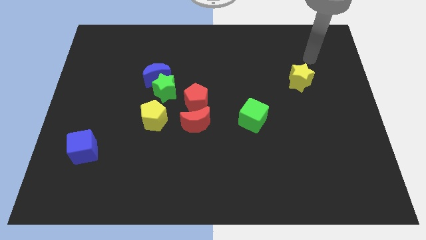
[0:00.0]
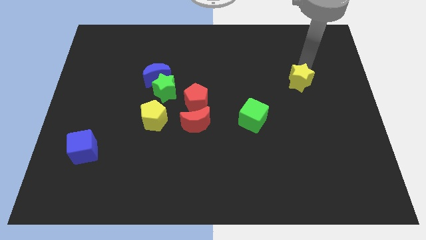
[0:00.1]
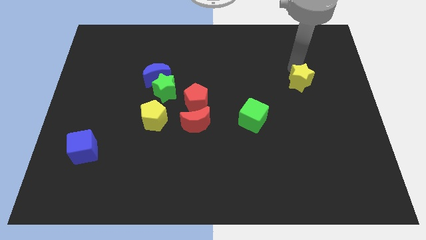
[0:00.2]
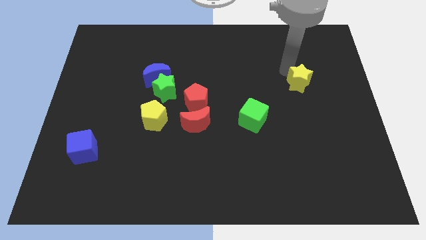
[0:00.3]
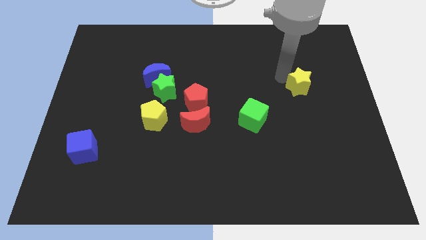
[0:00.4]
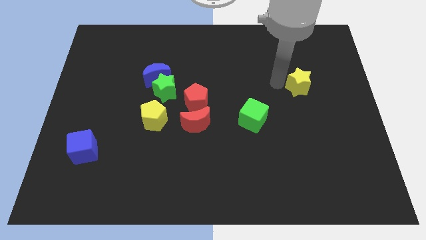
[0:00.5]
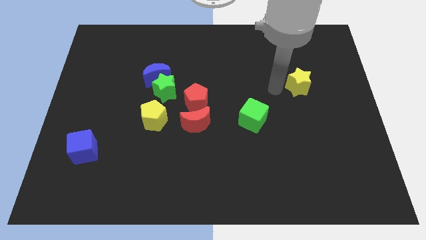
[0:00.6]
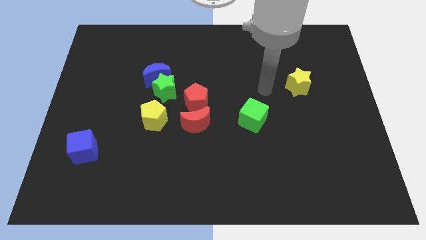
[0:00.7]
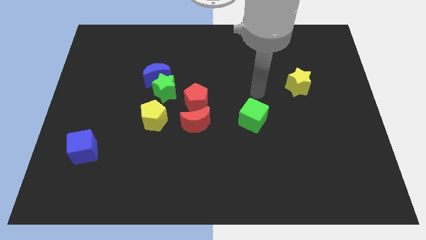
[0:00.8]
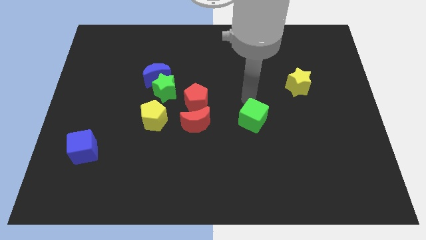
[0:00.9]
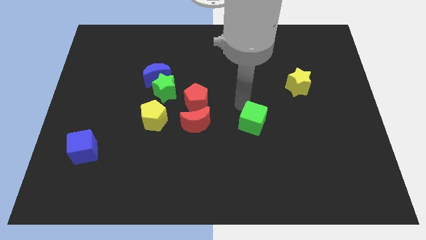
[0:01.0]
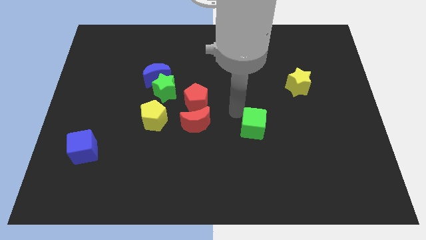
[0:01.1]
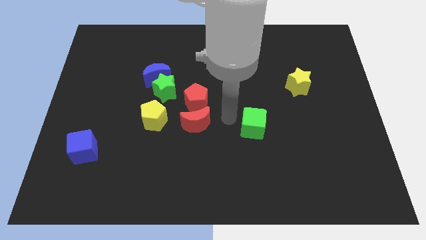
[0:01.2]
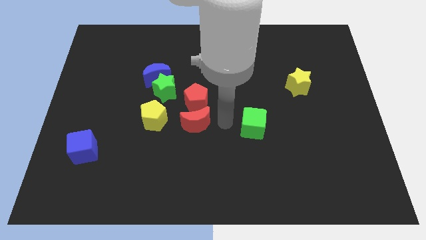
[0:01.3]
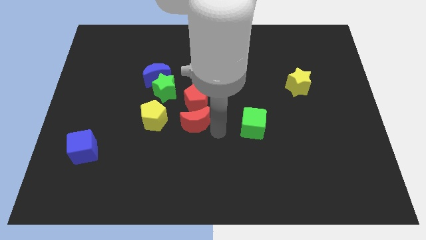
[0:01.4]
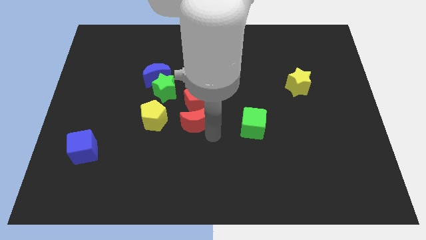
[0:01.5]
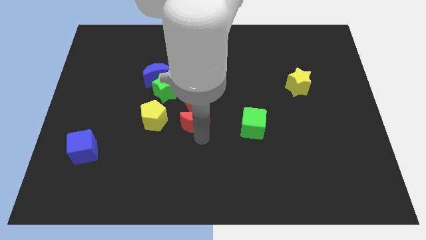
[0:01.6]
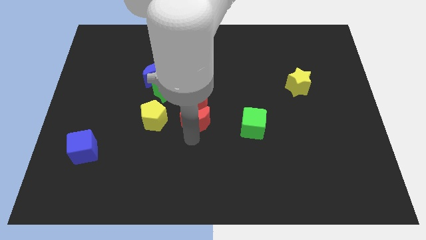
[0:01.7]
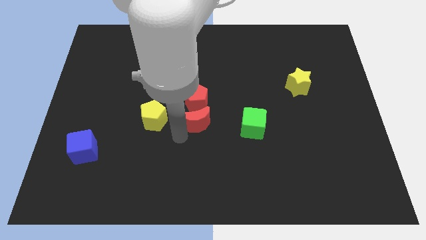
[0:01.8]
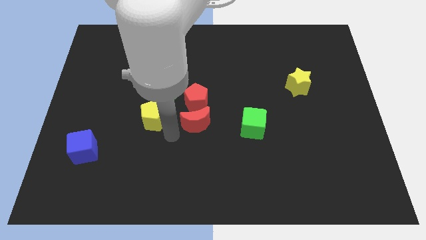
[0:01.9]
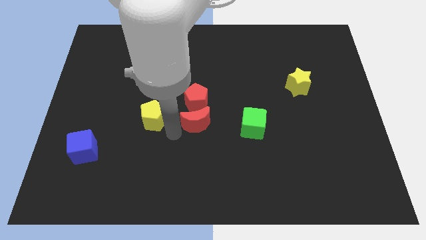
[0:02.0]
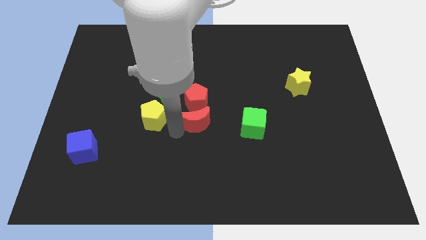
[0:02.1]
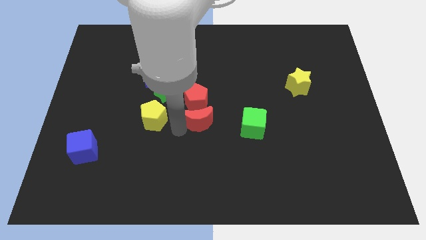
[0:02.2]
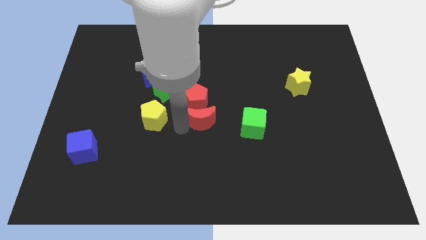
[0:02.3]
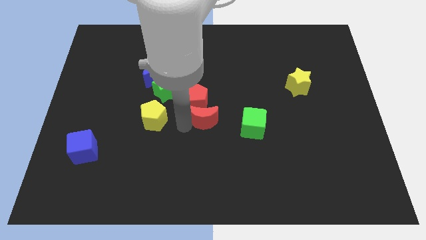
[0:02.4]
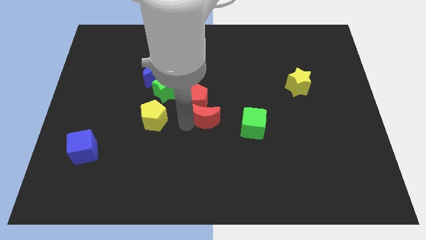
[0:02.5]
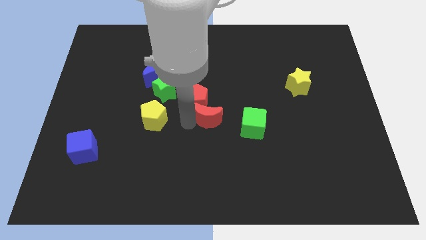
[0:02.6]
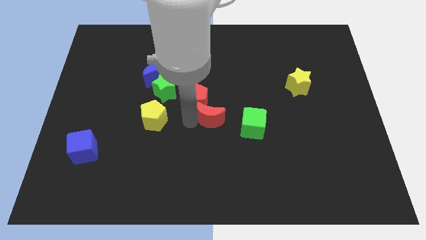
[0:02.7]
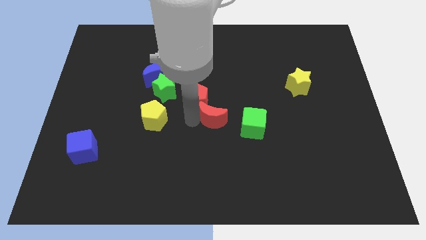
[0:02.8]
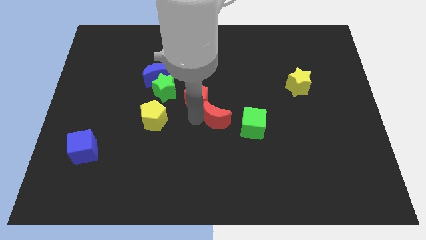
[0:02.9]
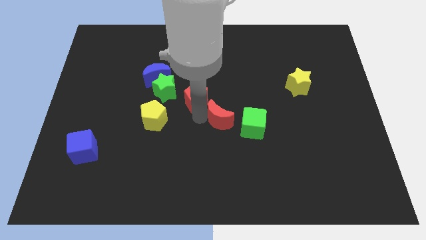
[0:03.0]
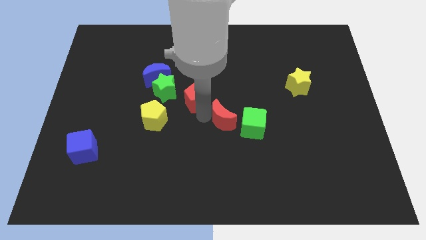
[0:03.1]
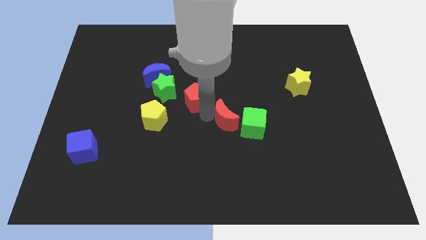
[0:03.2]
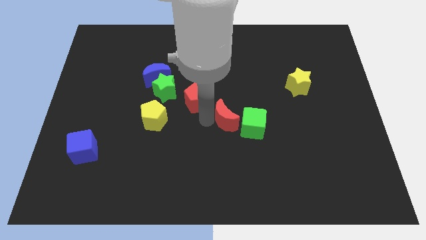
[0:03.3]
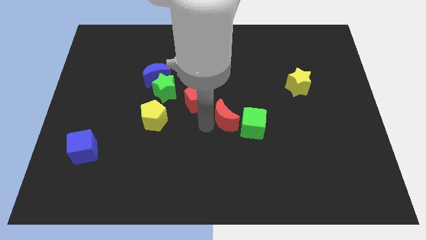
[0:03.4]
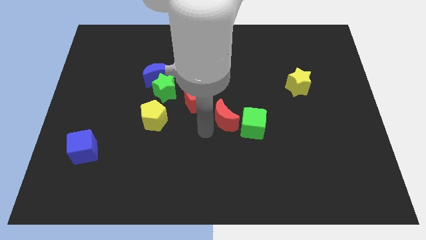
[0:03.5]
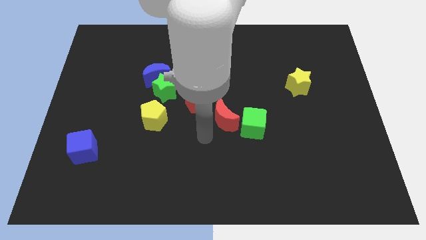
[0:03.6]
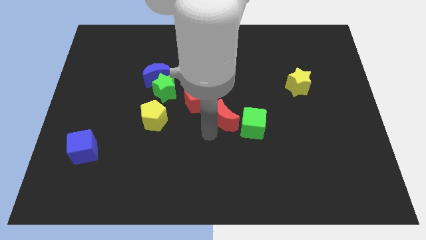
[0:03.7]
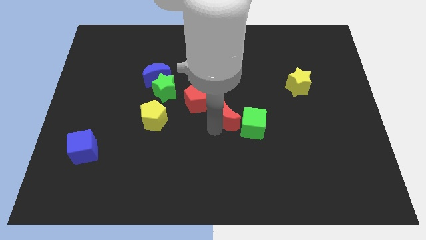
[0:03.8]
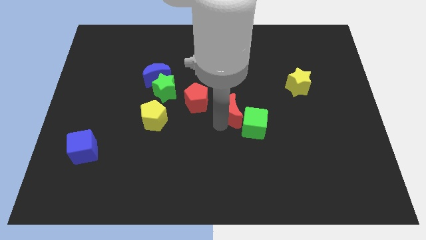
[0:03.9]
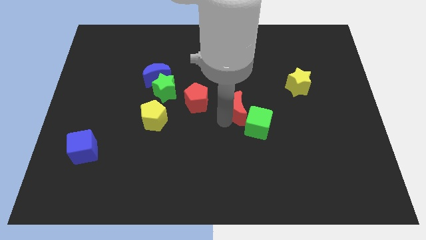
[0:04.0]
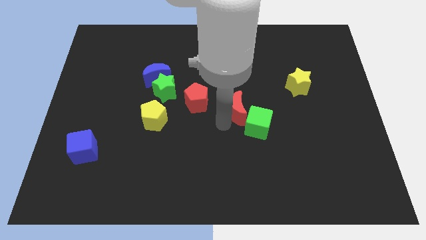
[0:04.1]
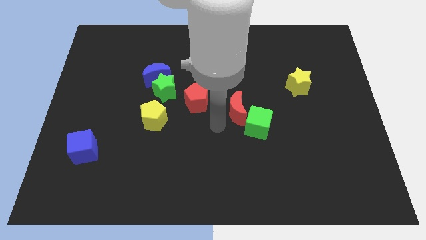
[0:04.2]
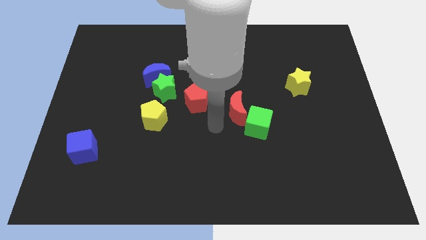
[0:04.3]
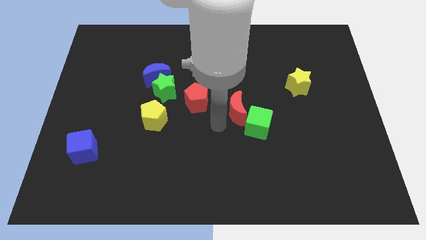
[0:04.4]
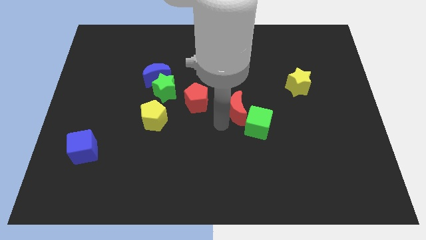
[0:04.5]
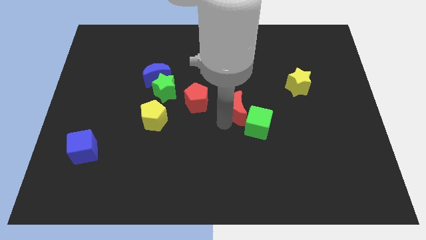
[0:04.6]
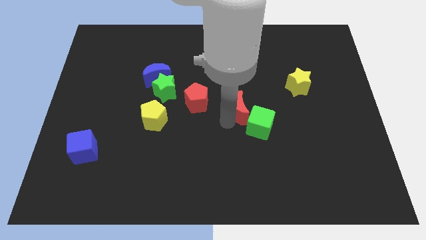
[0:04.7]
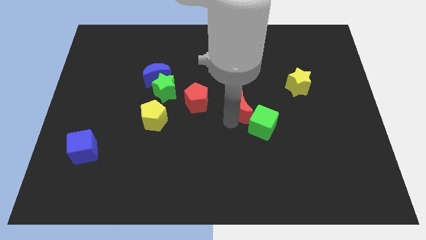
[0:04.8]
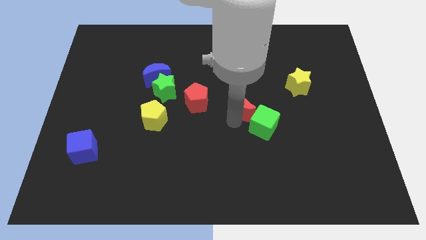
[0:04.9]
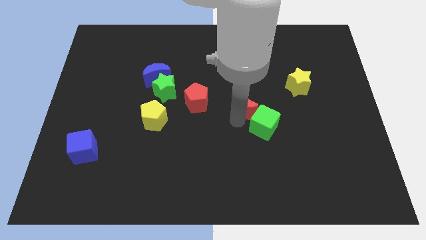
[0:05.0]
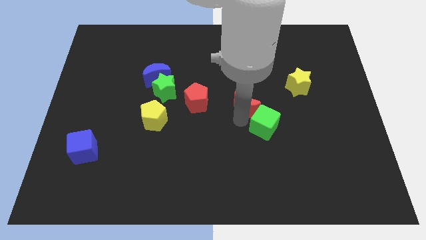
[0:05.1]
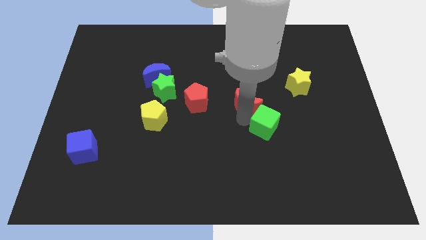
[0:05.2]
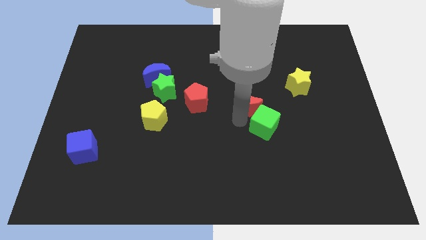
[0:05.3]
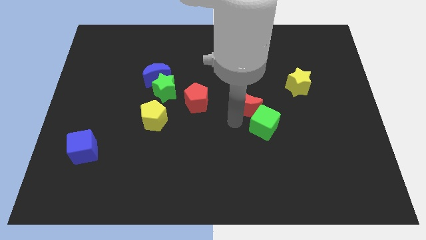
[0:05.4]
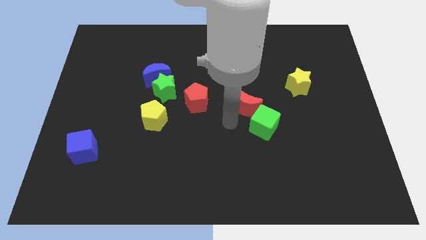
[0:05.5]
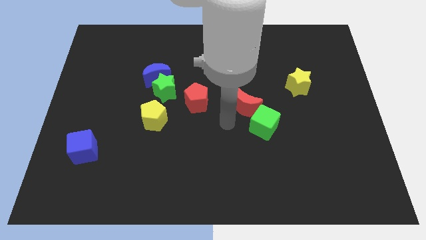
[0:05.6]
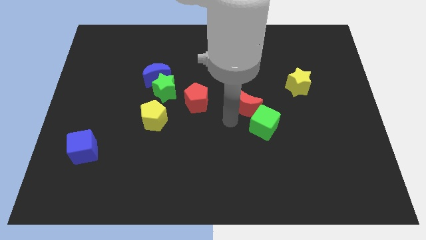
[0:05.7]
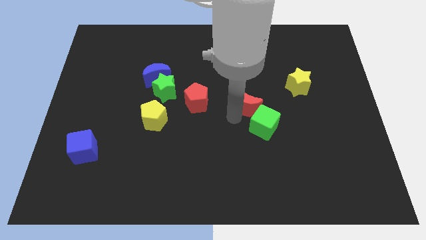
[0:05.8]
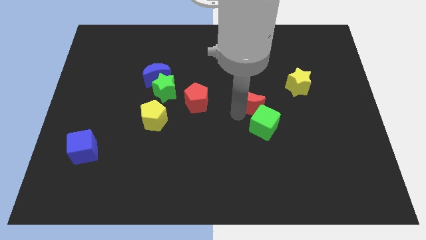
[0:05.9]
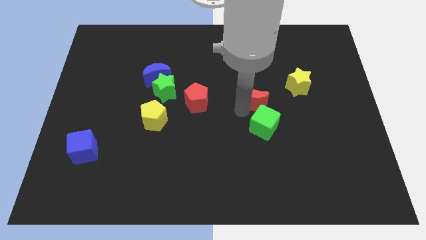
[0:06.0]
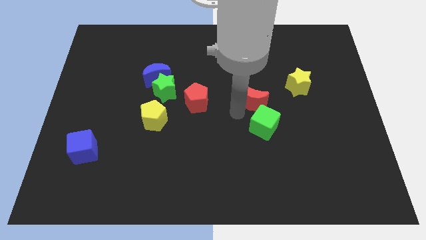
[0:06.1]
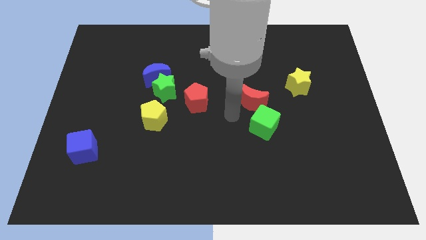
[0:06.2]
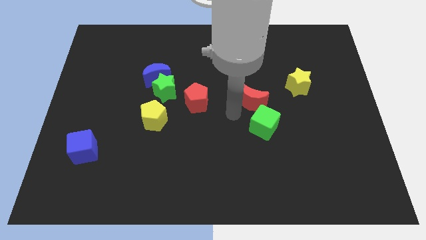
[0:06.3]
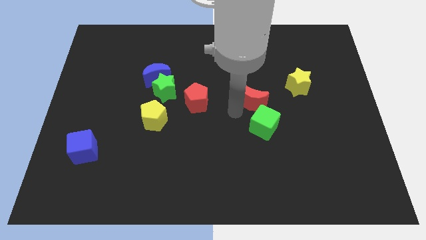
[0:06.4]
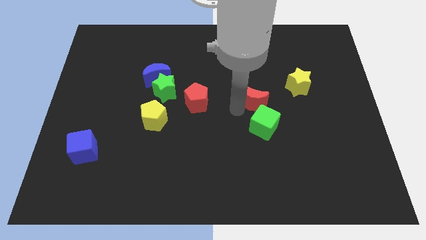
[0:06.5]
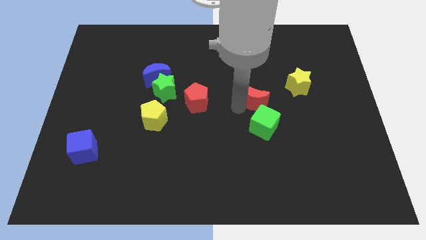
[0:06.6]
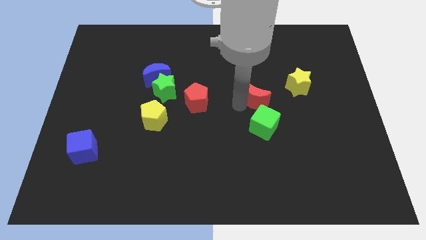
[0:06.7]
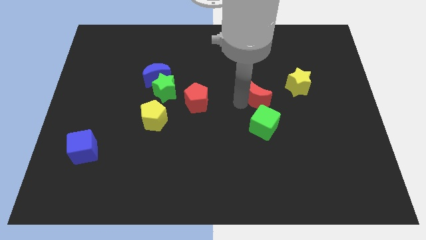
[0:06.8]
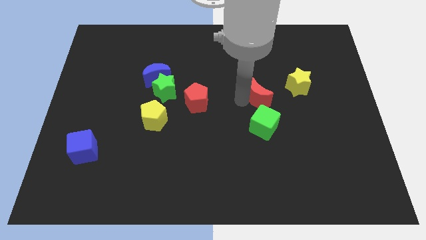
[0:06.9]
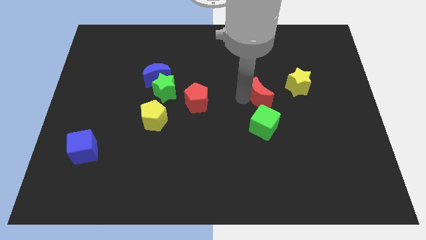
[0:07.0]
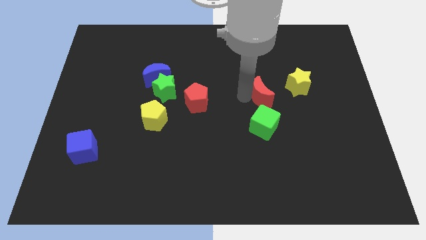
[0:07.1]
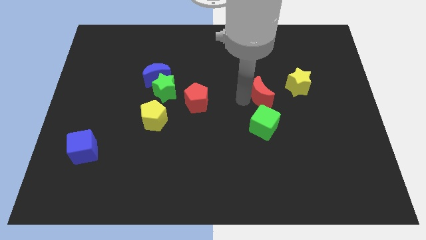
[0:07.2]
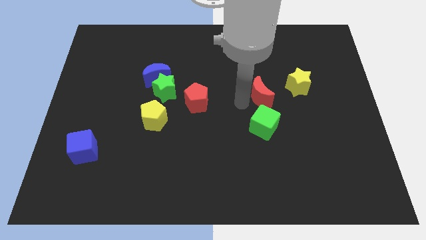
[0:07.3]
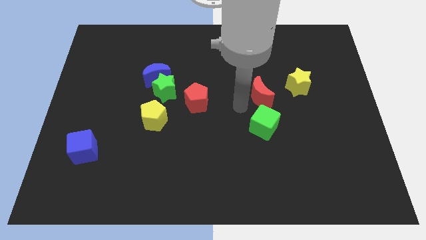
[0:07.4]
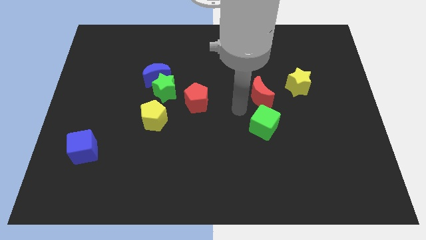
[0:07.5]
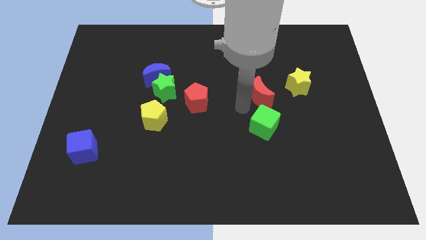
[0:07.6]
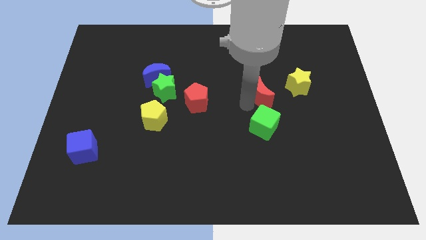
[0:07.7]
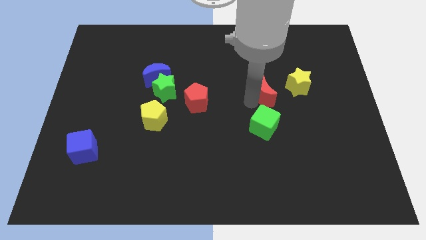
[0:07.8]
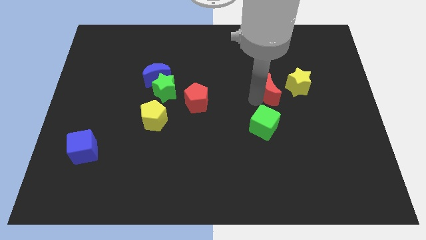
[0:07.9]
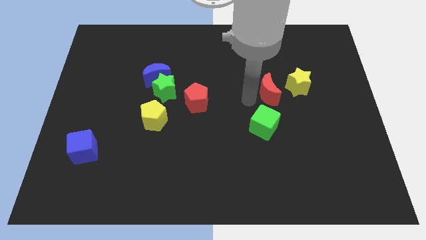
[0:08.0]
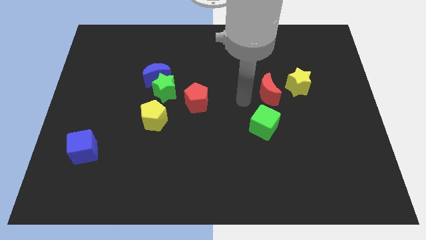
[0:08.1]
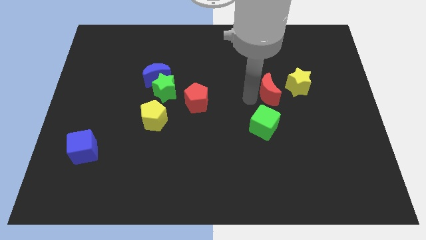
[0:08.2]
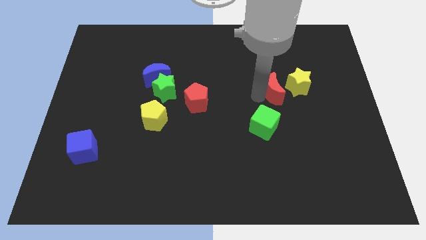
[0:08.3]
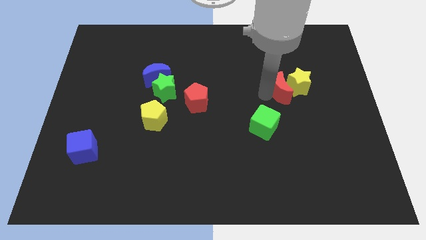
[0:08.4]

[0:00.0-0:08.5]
move the red moon close to the yellow star
